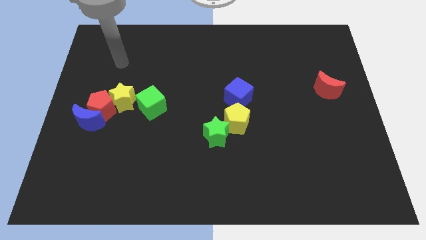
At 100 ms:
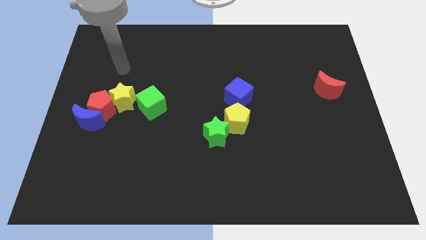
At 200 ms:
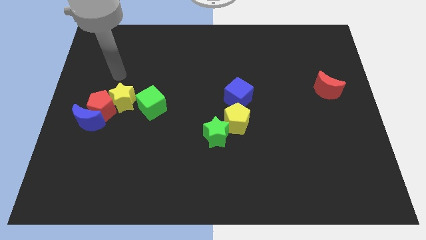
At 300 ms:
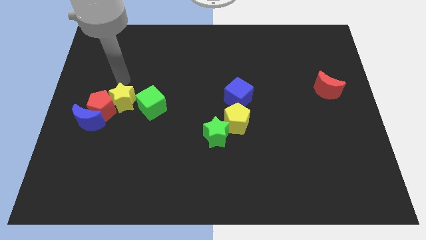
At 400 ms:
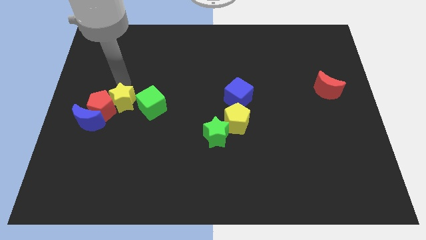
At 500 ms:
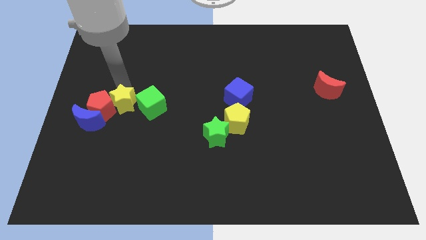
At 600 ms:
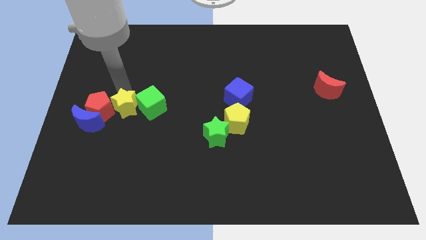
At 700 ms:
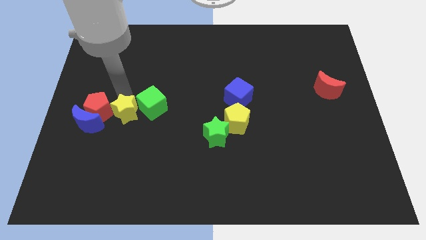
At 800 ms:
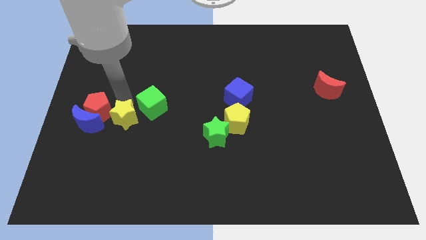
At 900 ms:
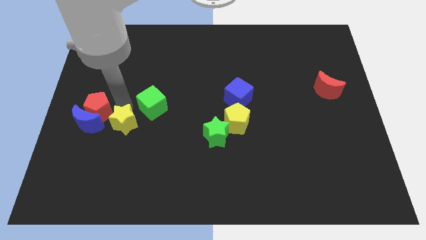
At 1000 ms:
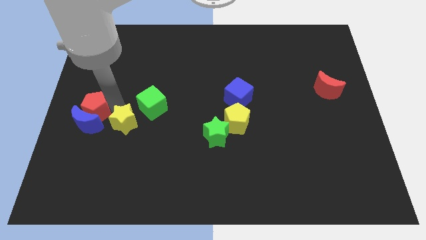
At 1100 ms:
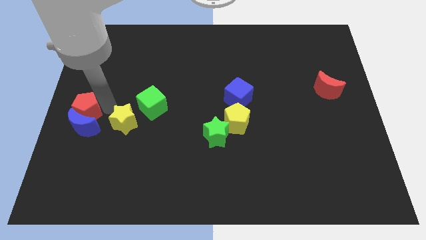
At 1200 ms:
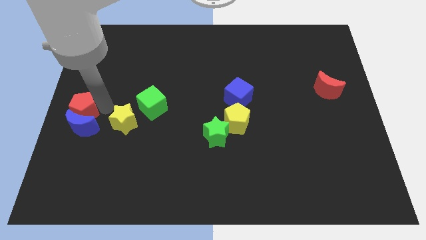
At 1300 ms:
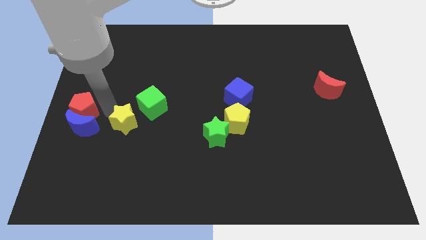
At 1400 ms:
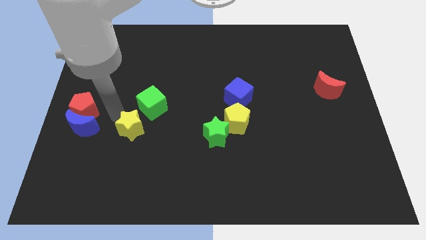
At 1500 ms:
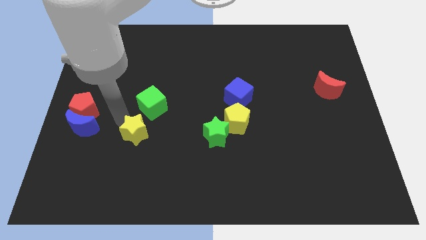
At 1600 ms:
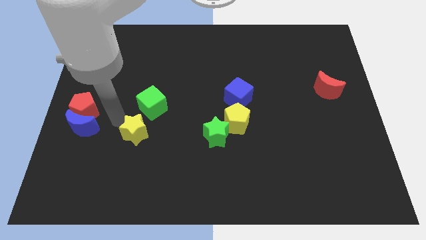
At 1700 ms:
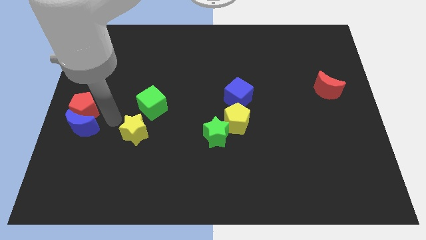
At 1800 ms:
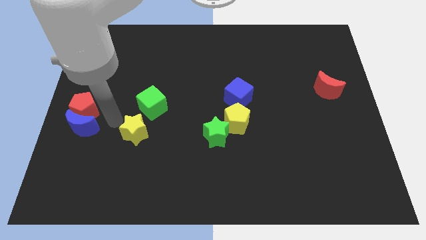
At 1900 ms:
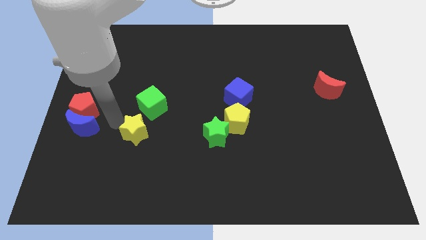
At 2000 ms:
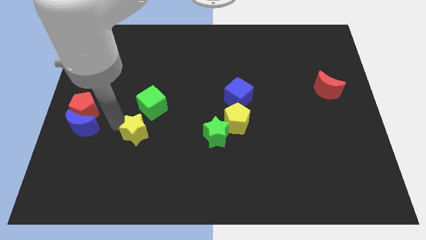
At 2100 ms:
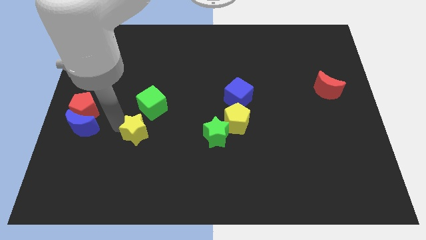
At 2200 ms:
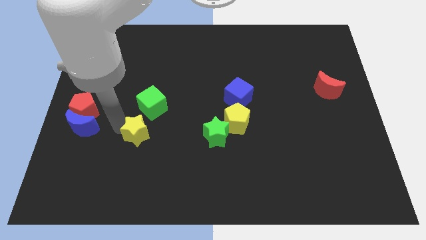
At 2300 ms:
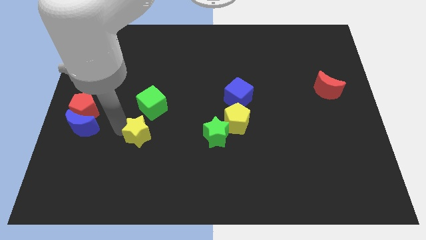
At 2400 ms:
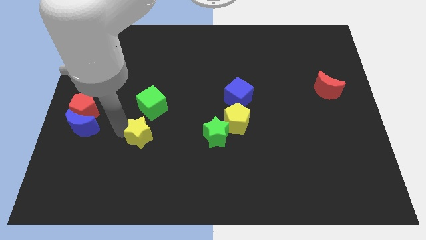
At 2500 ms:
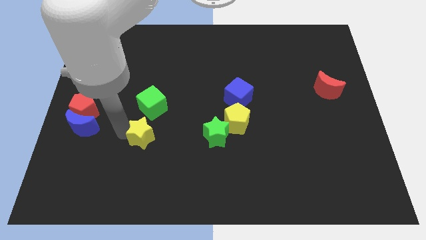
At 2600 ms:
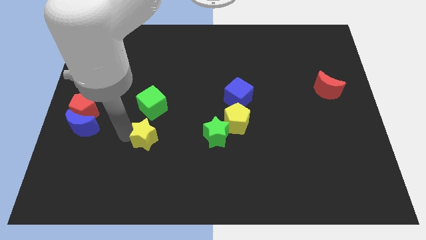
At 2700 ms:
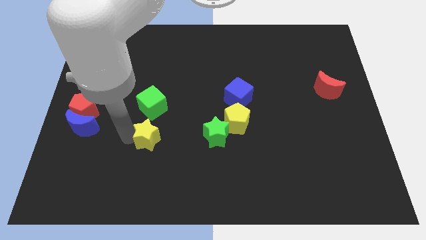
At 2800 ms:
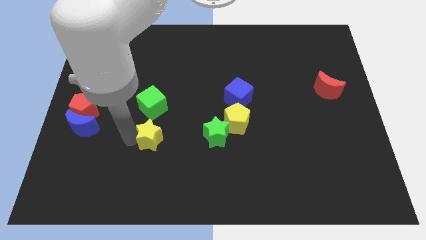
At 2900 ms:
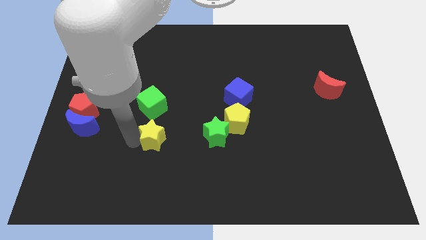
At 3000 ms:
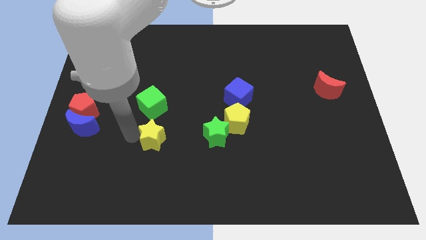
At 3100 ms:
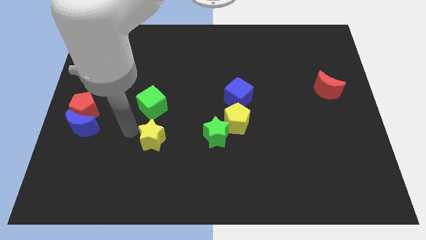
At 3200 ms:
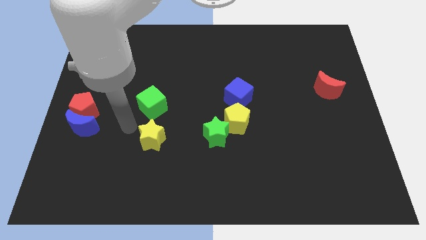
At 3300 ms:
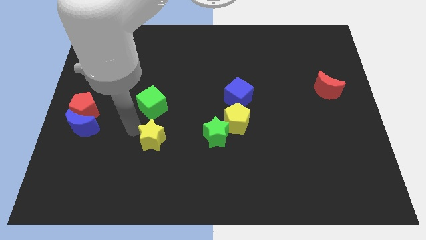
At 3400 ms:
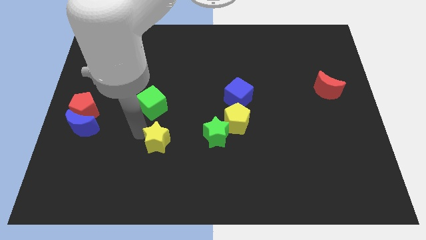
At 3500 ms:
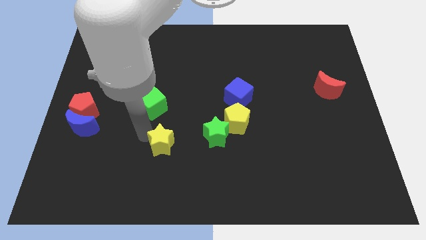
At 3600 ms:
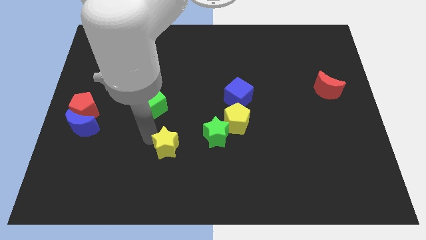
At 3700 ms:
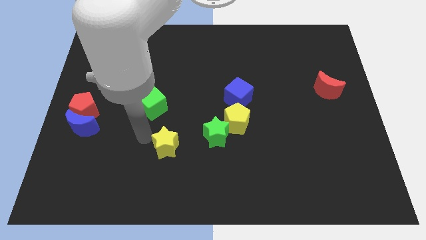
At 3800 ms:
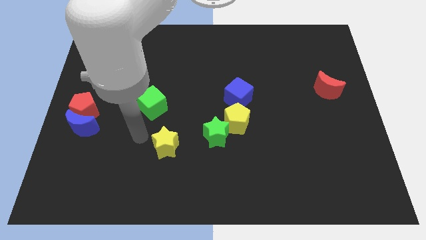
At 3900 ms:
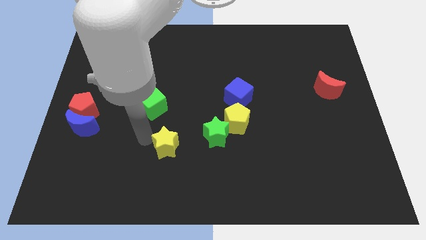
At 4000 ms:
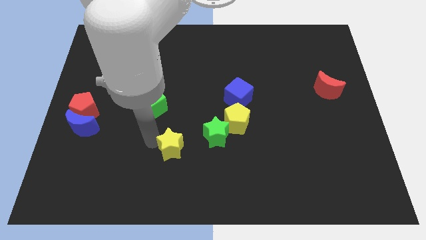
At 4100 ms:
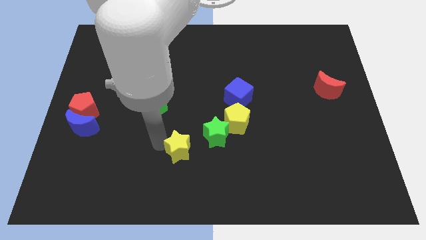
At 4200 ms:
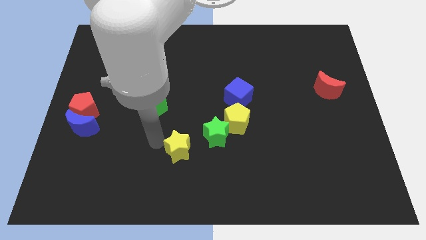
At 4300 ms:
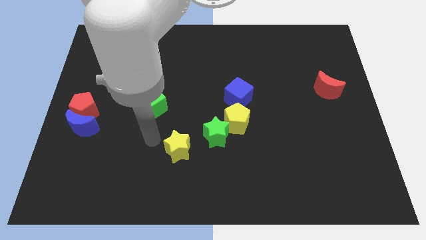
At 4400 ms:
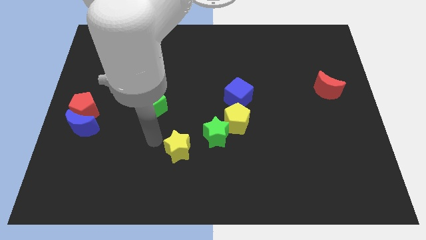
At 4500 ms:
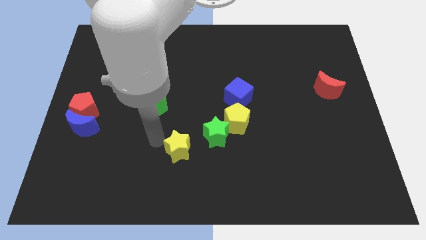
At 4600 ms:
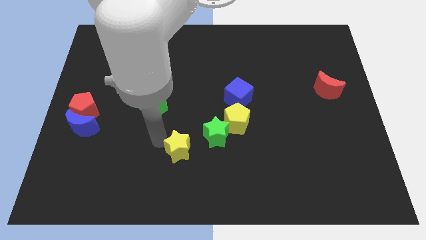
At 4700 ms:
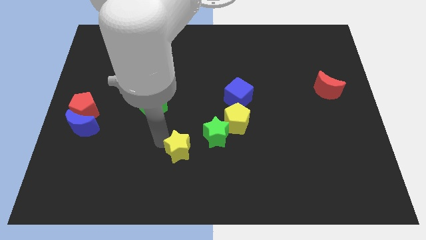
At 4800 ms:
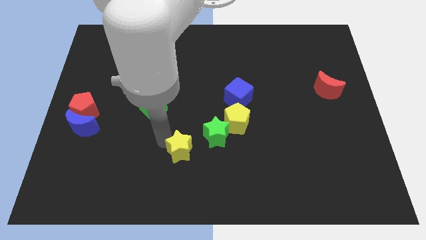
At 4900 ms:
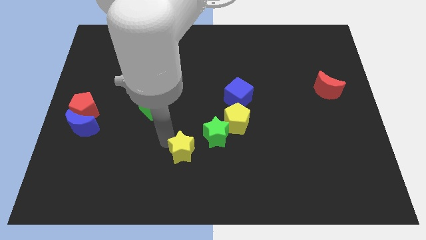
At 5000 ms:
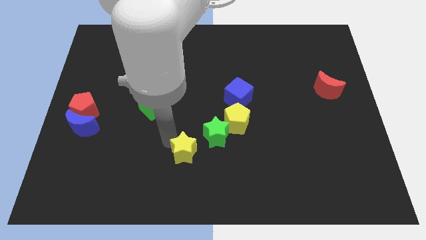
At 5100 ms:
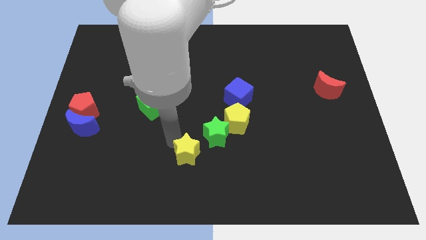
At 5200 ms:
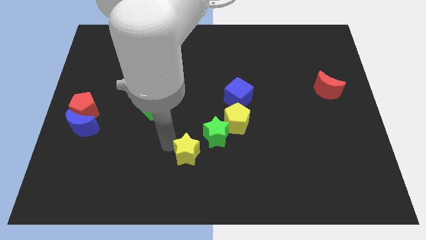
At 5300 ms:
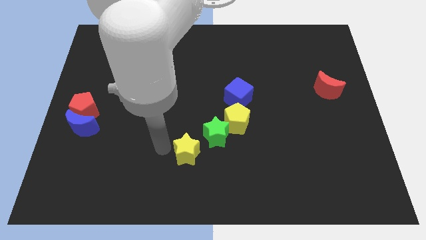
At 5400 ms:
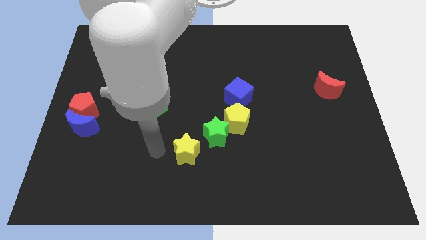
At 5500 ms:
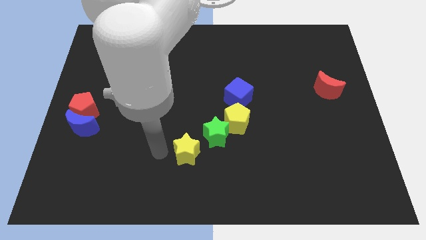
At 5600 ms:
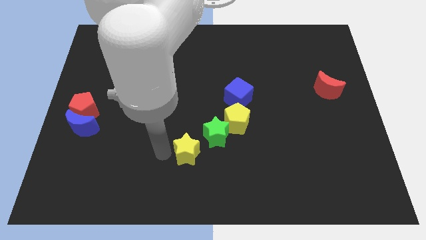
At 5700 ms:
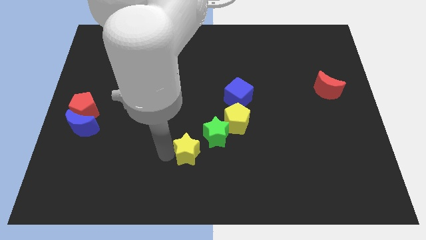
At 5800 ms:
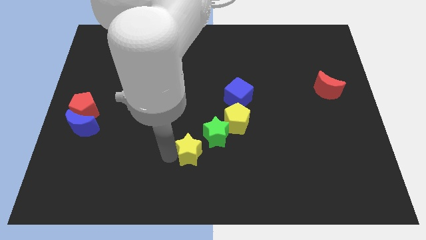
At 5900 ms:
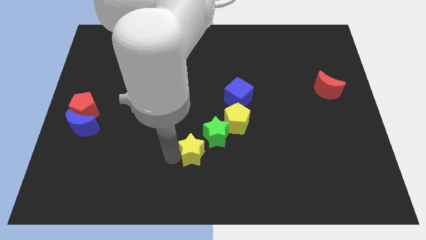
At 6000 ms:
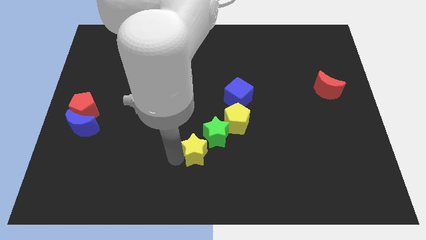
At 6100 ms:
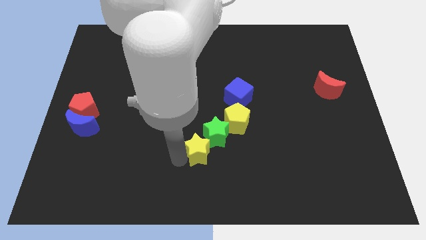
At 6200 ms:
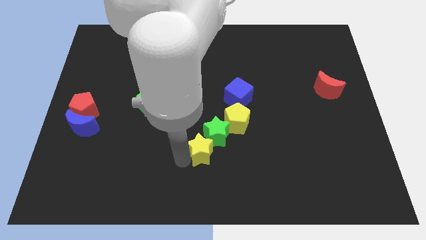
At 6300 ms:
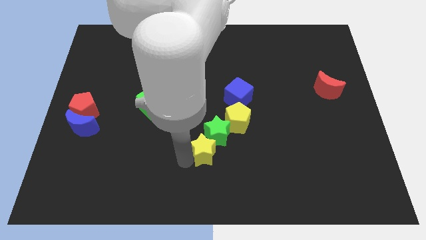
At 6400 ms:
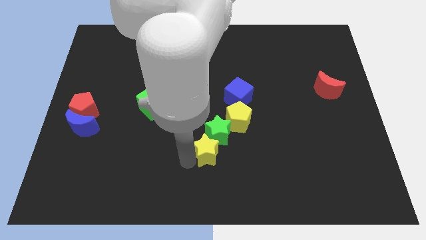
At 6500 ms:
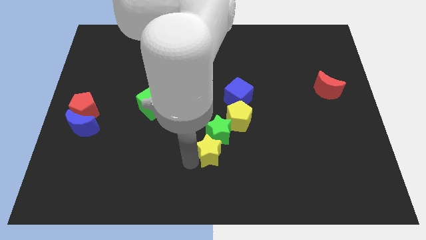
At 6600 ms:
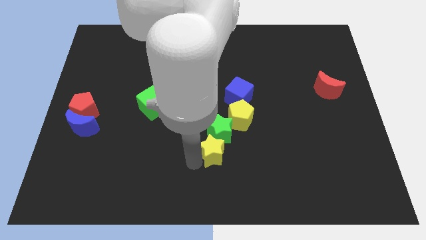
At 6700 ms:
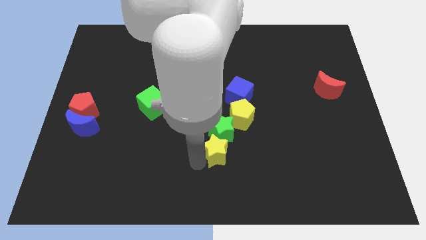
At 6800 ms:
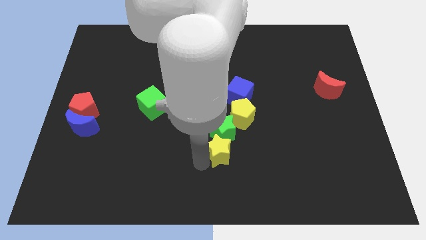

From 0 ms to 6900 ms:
move the yellow star to the bottom right of the green star
